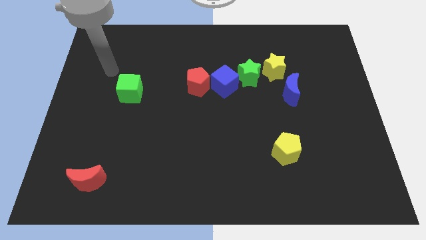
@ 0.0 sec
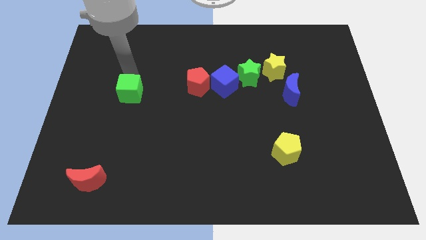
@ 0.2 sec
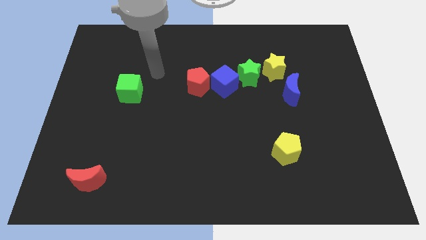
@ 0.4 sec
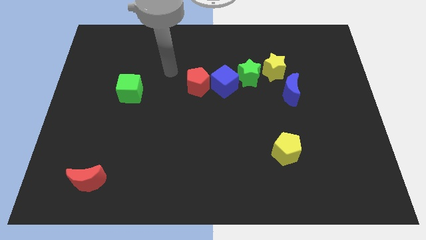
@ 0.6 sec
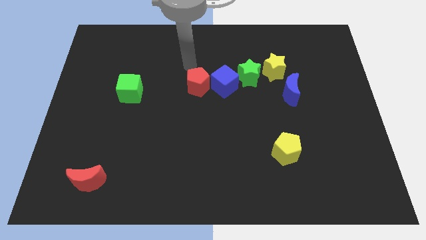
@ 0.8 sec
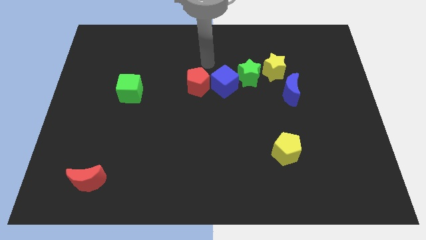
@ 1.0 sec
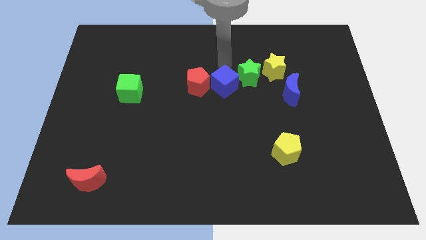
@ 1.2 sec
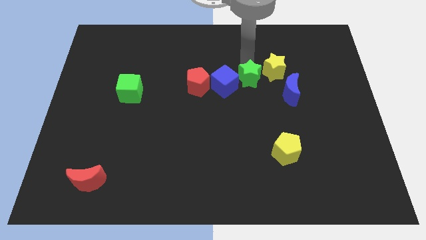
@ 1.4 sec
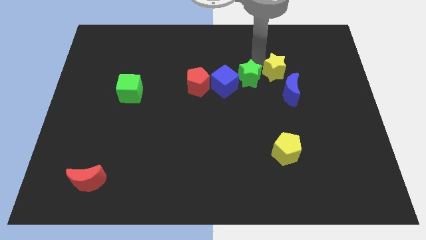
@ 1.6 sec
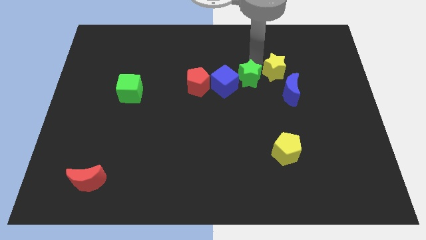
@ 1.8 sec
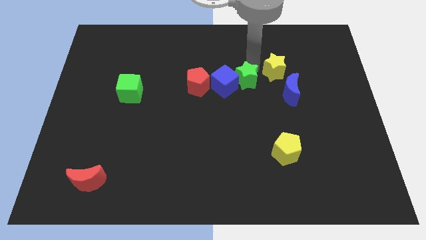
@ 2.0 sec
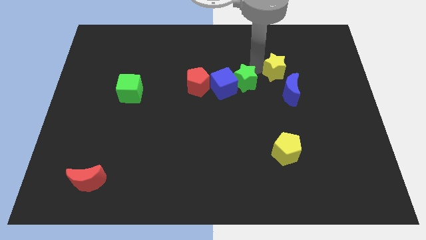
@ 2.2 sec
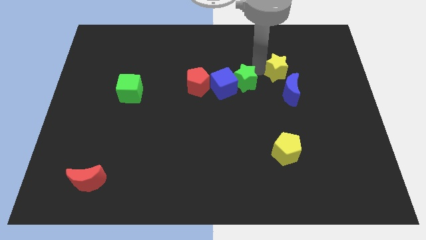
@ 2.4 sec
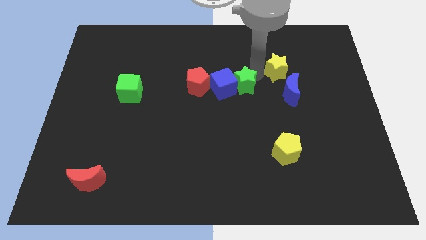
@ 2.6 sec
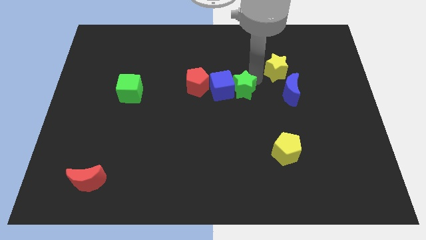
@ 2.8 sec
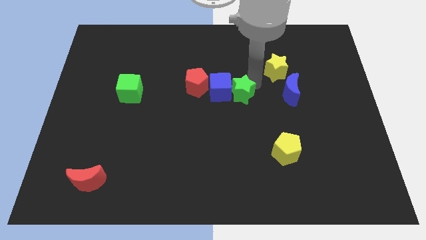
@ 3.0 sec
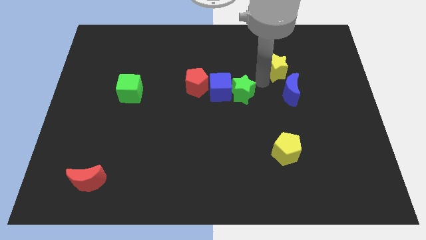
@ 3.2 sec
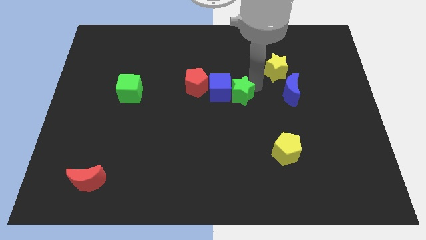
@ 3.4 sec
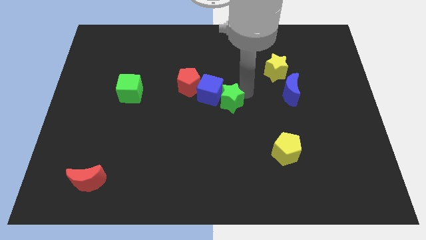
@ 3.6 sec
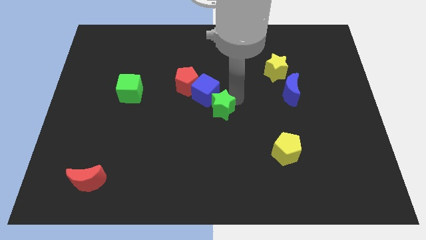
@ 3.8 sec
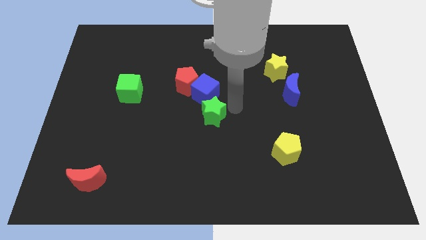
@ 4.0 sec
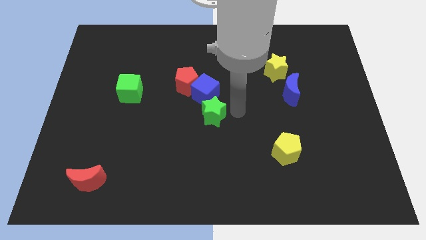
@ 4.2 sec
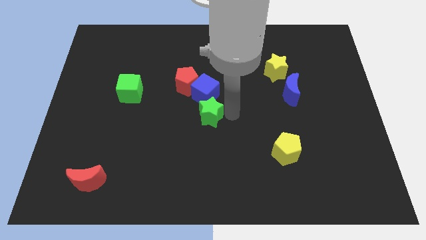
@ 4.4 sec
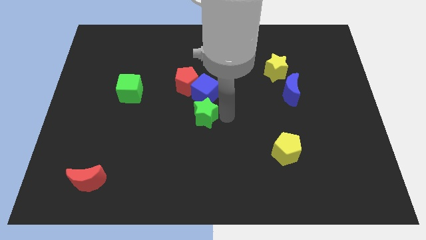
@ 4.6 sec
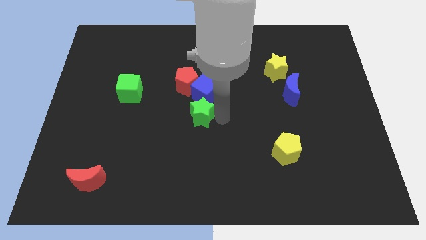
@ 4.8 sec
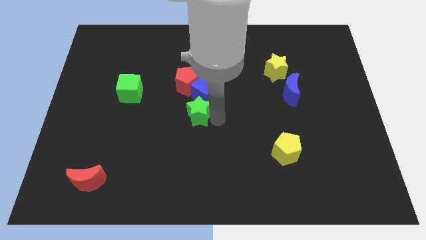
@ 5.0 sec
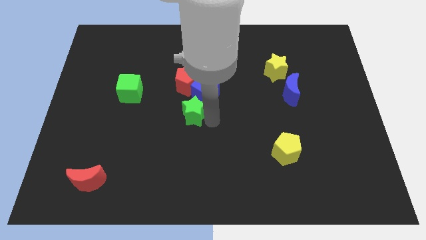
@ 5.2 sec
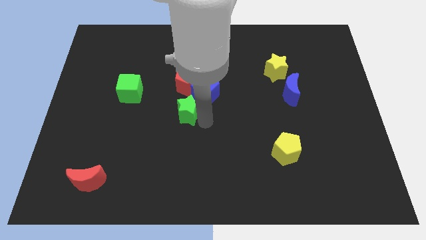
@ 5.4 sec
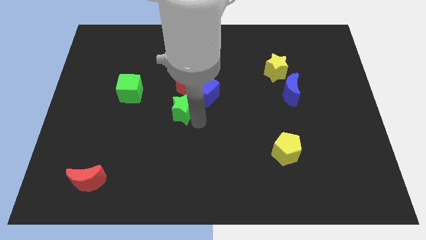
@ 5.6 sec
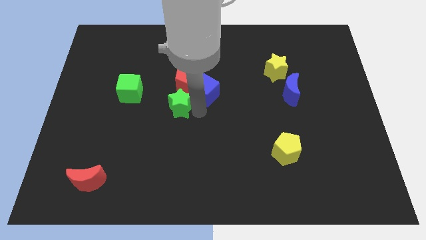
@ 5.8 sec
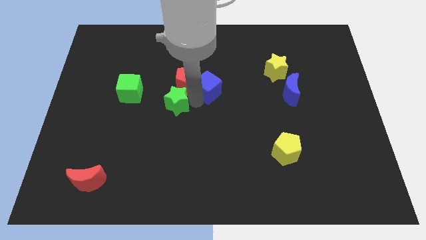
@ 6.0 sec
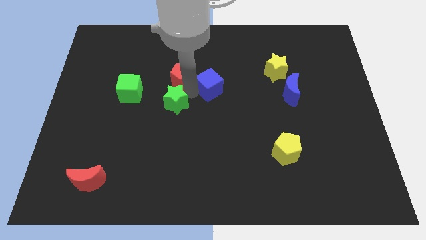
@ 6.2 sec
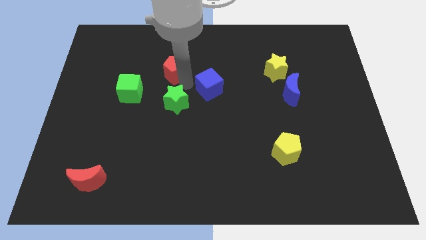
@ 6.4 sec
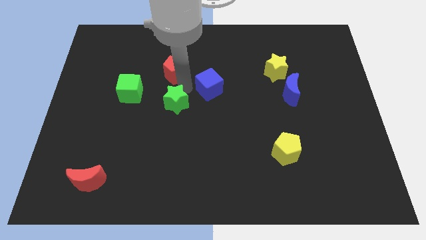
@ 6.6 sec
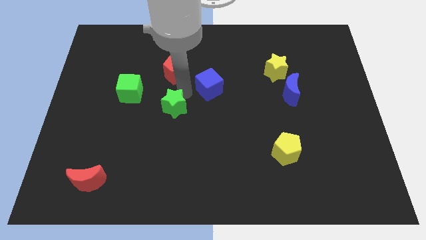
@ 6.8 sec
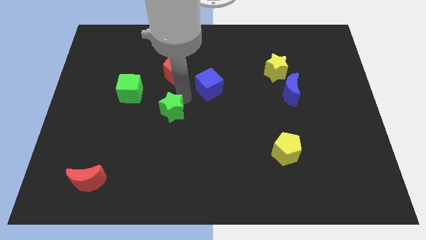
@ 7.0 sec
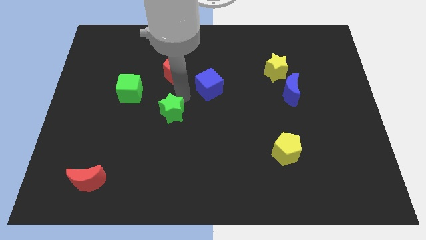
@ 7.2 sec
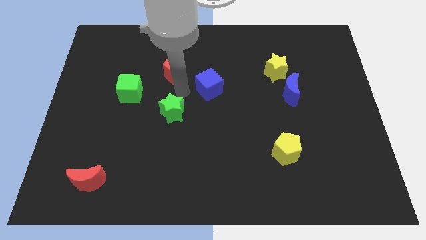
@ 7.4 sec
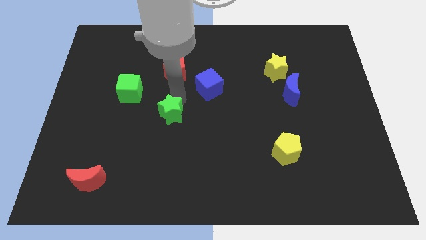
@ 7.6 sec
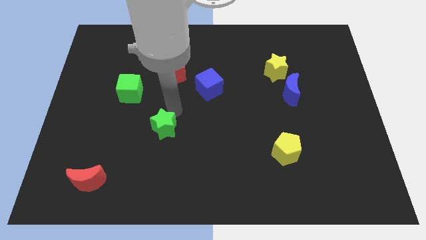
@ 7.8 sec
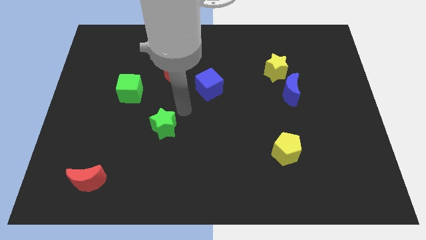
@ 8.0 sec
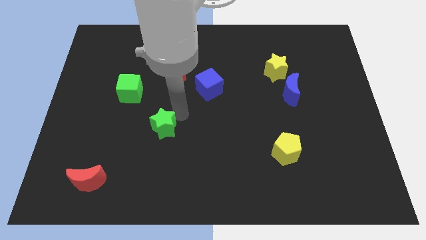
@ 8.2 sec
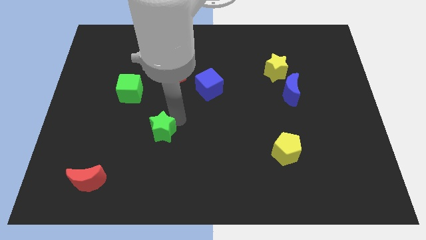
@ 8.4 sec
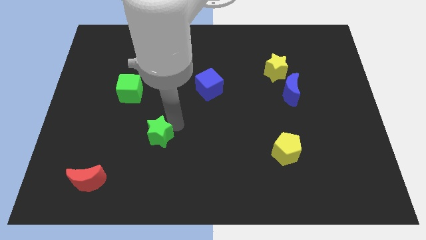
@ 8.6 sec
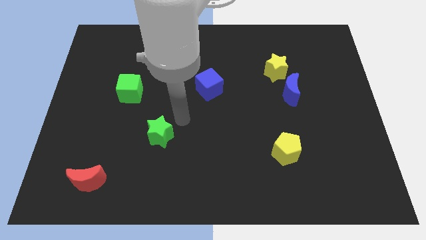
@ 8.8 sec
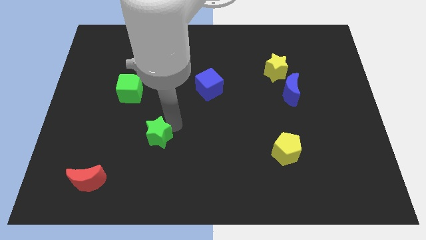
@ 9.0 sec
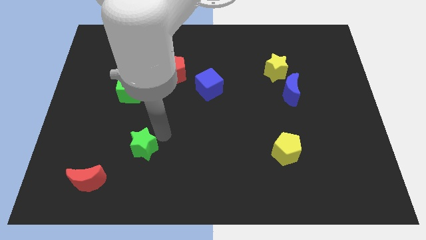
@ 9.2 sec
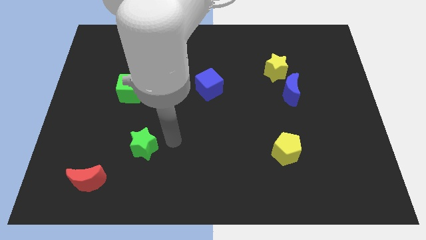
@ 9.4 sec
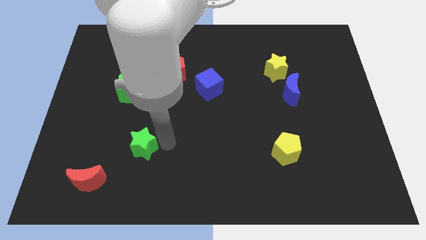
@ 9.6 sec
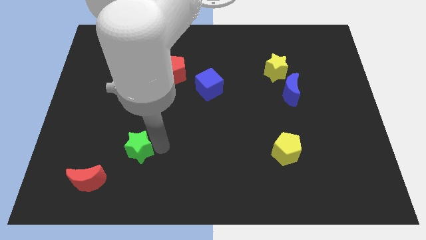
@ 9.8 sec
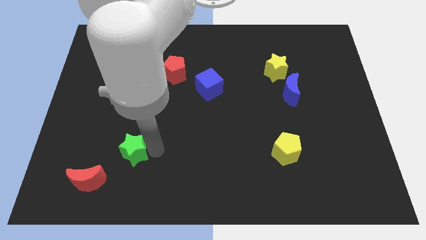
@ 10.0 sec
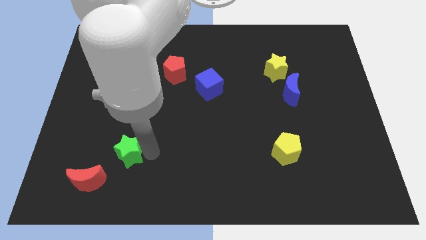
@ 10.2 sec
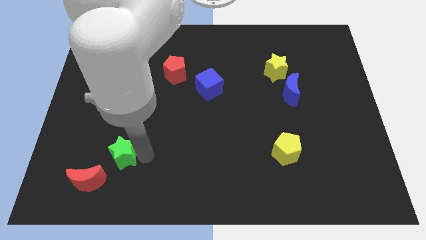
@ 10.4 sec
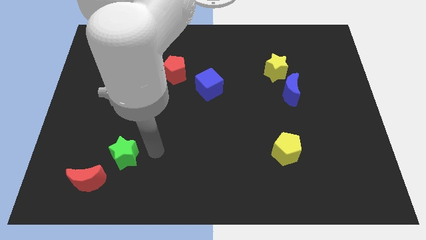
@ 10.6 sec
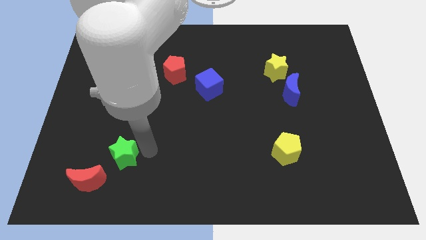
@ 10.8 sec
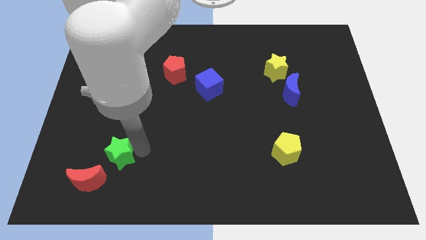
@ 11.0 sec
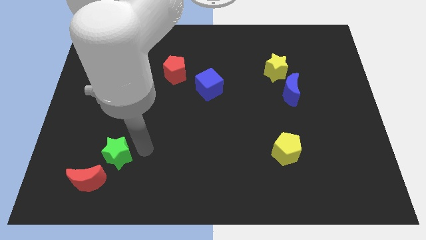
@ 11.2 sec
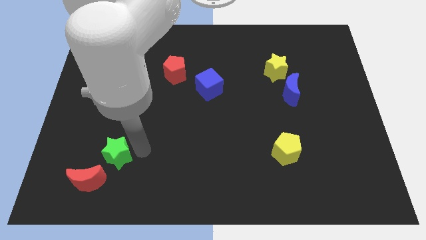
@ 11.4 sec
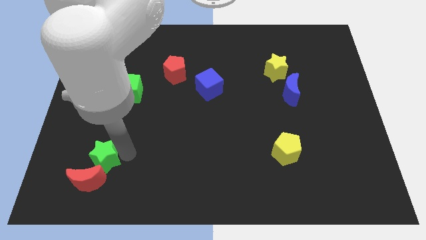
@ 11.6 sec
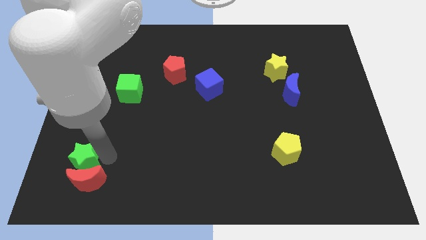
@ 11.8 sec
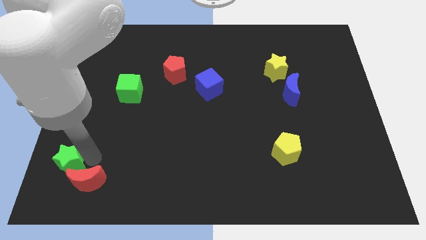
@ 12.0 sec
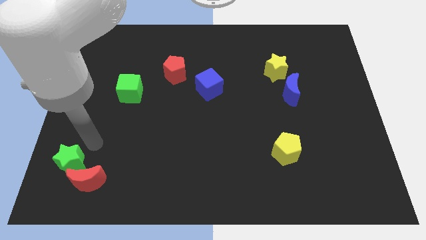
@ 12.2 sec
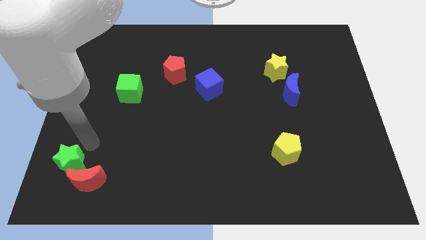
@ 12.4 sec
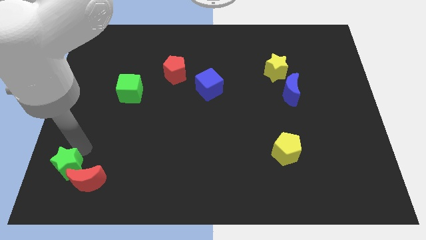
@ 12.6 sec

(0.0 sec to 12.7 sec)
put the green star to the bottom left corner

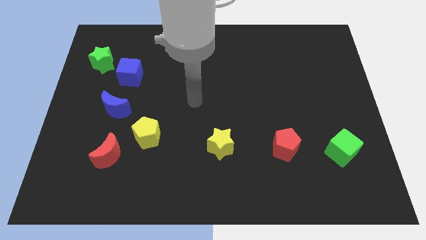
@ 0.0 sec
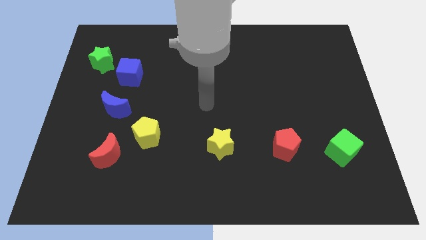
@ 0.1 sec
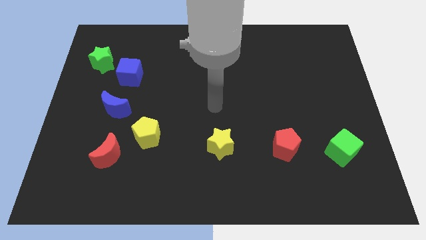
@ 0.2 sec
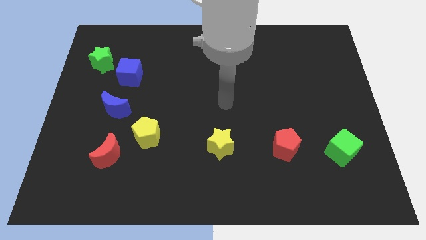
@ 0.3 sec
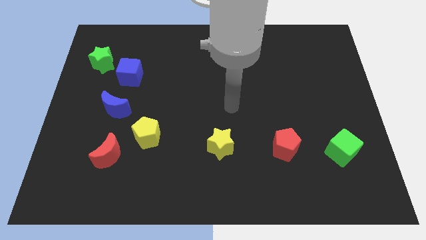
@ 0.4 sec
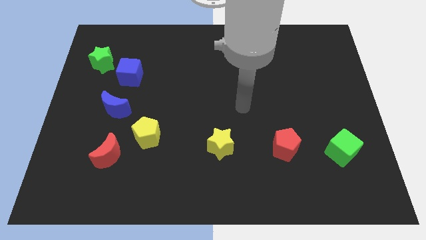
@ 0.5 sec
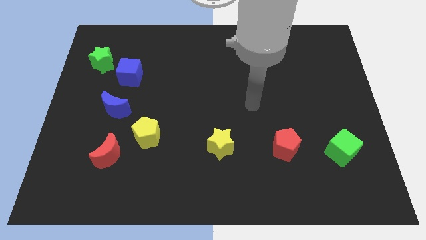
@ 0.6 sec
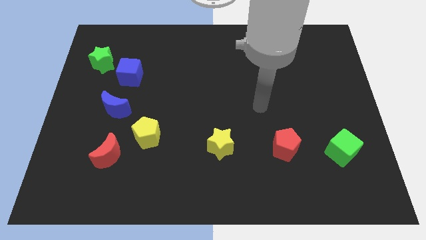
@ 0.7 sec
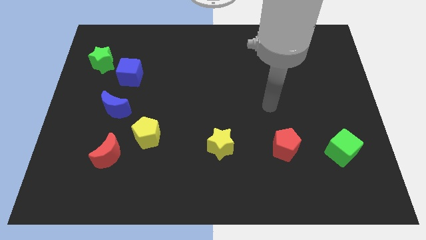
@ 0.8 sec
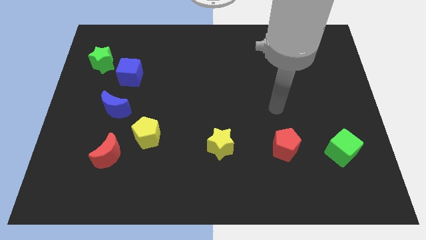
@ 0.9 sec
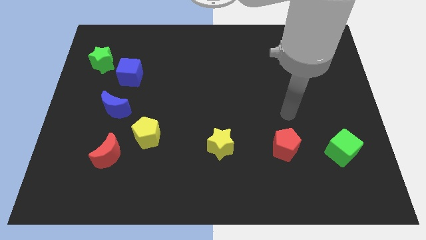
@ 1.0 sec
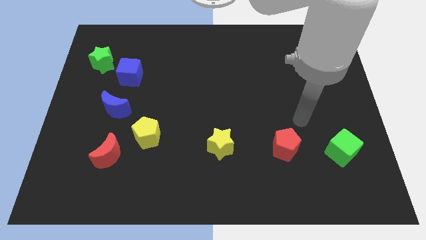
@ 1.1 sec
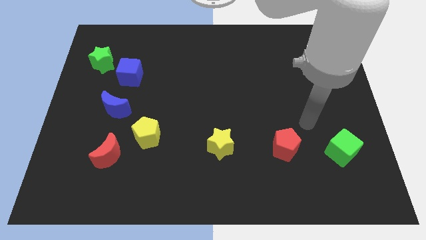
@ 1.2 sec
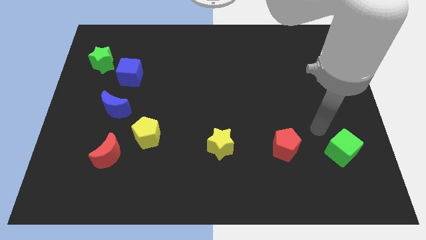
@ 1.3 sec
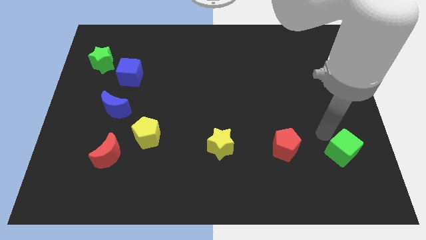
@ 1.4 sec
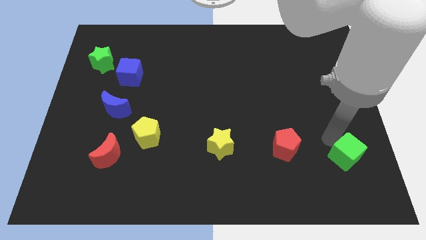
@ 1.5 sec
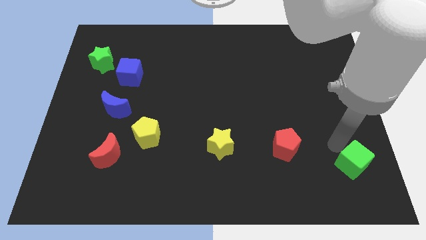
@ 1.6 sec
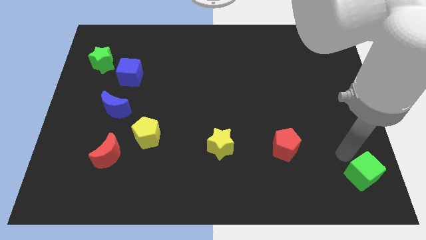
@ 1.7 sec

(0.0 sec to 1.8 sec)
move the green cube to the bottom right
